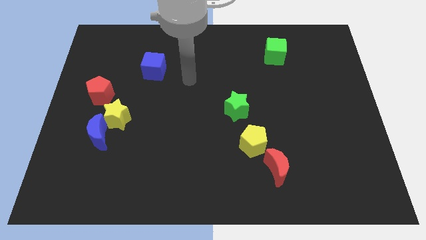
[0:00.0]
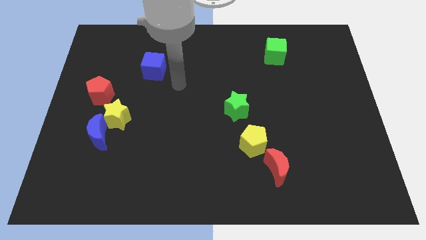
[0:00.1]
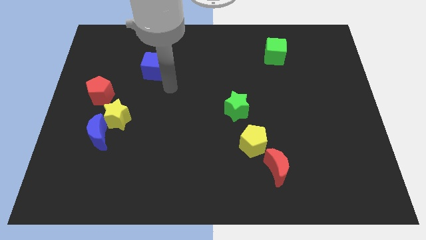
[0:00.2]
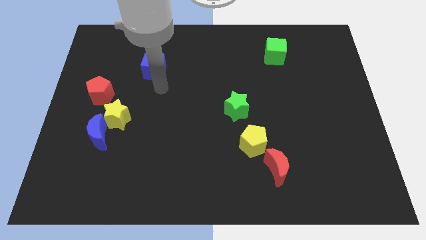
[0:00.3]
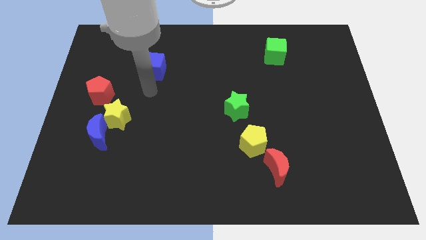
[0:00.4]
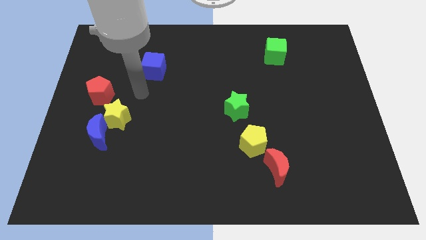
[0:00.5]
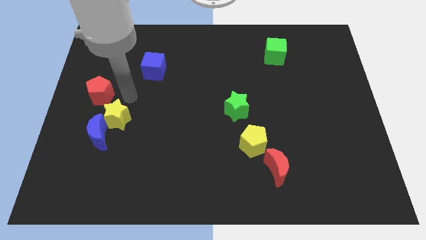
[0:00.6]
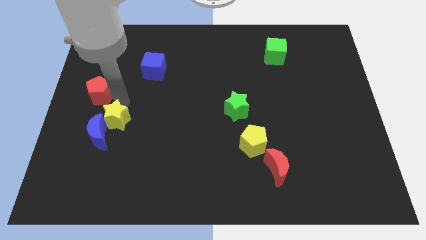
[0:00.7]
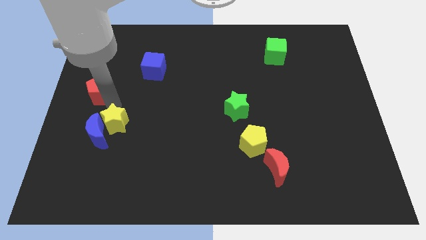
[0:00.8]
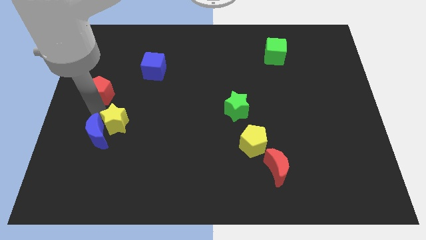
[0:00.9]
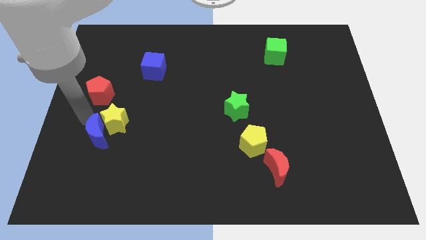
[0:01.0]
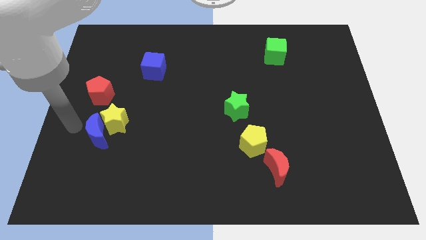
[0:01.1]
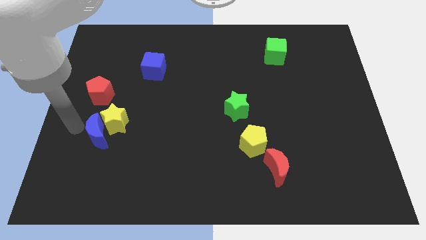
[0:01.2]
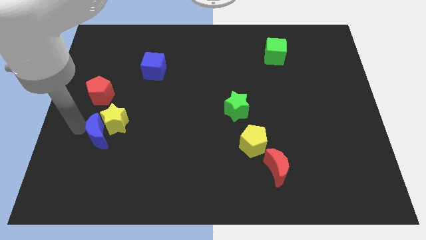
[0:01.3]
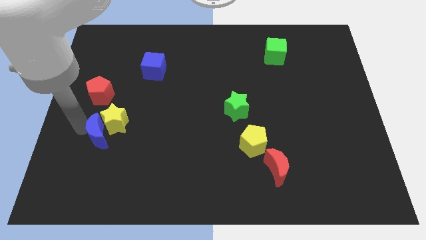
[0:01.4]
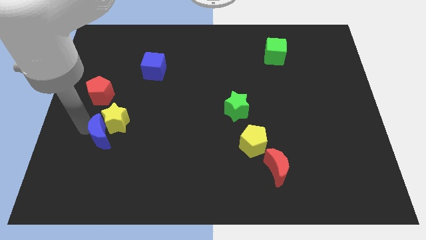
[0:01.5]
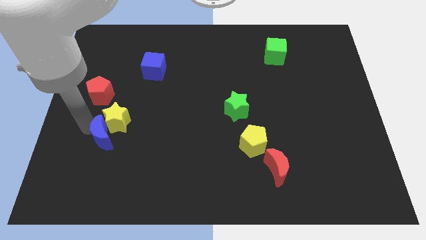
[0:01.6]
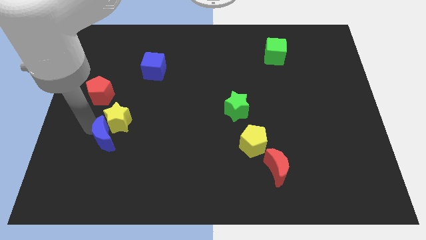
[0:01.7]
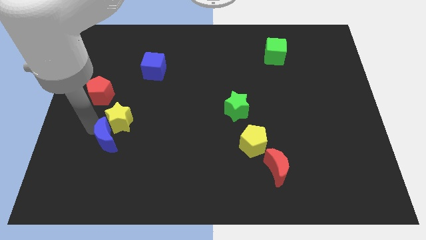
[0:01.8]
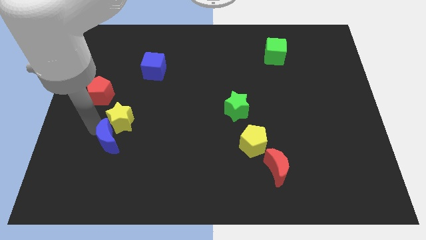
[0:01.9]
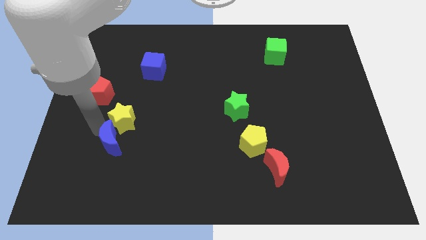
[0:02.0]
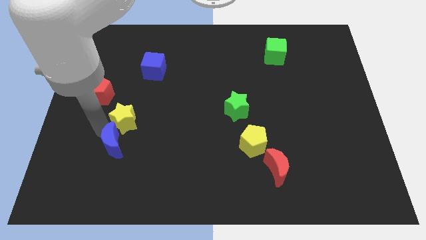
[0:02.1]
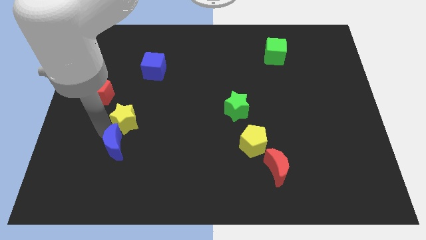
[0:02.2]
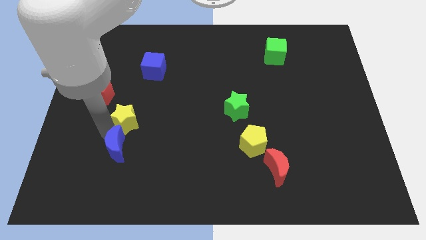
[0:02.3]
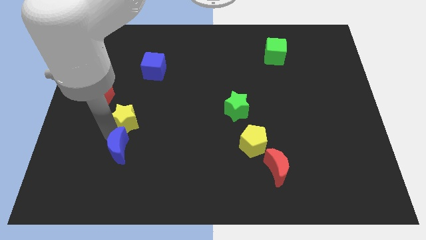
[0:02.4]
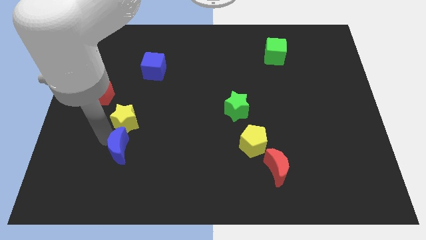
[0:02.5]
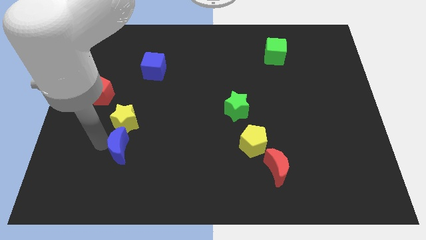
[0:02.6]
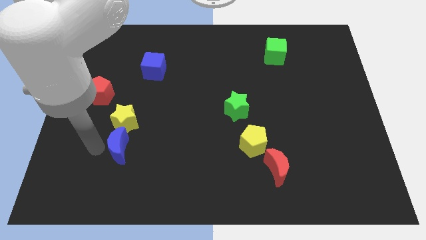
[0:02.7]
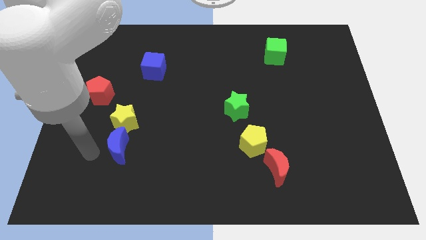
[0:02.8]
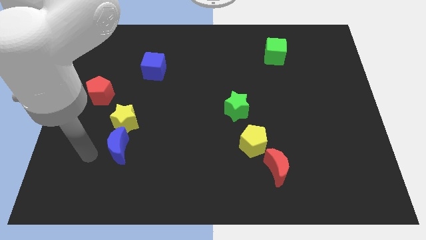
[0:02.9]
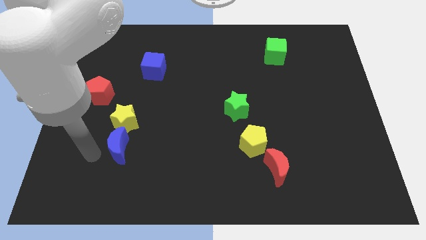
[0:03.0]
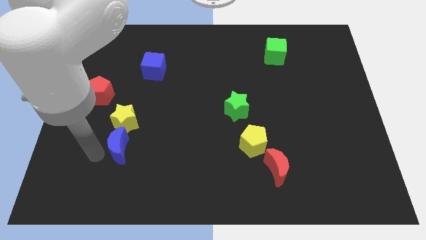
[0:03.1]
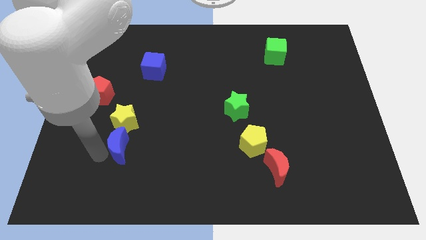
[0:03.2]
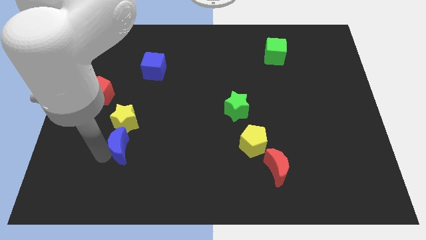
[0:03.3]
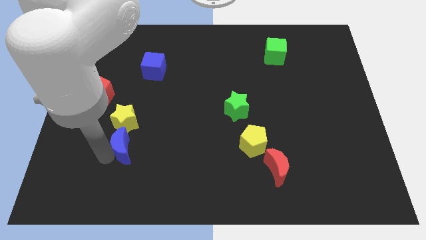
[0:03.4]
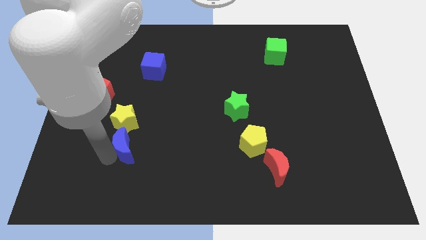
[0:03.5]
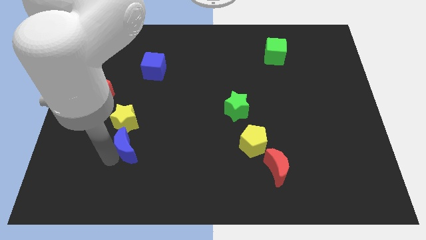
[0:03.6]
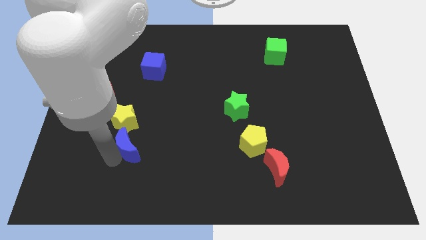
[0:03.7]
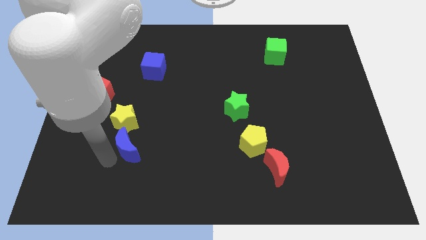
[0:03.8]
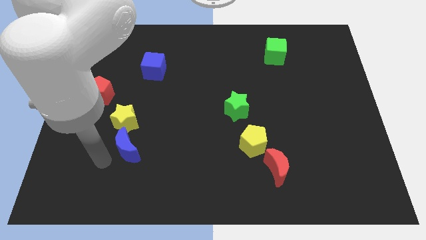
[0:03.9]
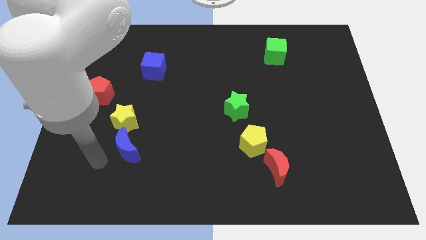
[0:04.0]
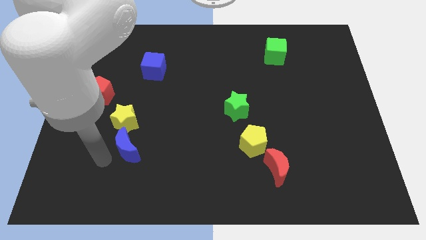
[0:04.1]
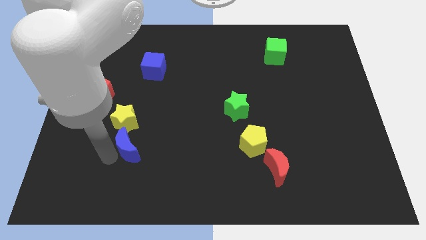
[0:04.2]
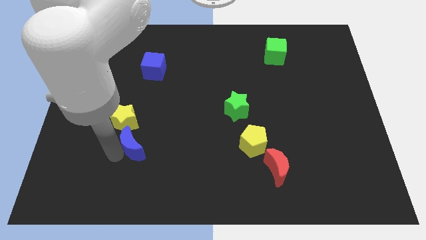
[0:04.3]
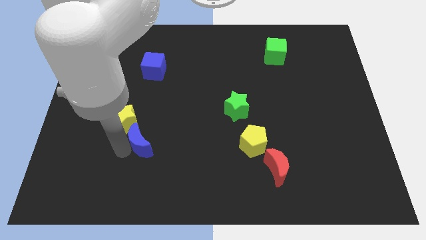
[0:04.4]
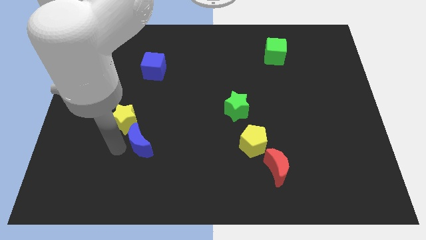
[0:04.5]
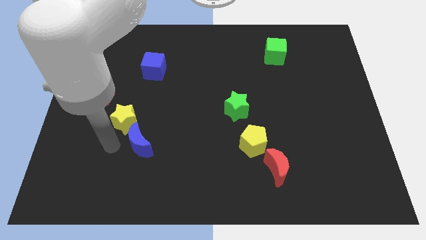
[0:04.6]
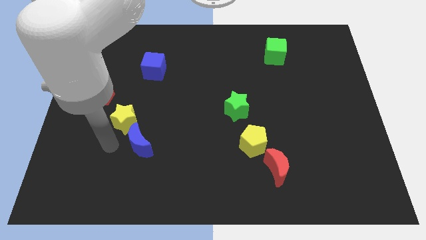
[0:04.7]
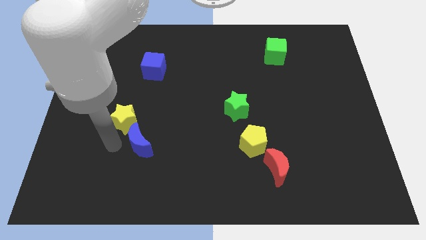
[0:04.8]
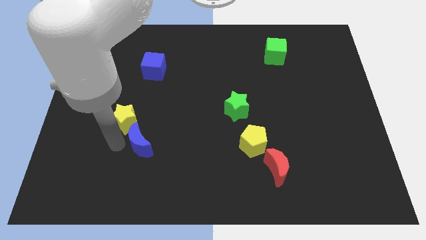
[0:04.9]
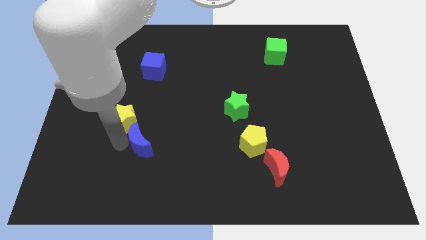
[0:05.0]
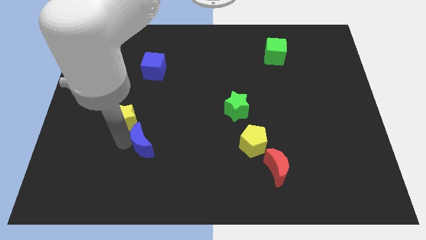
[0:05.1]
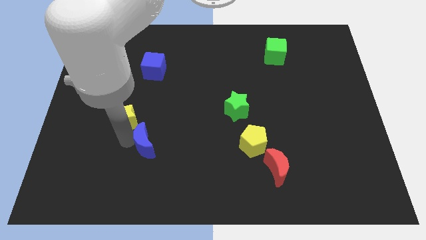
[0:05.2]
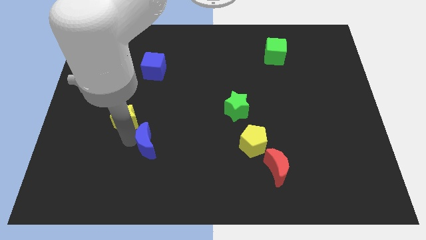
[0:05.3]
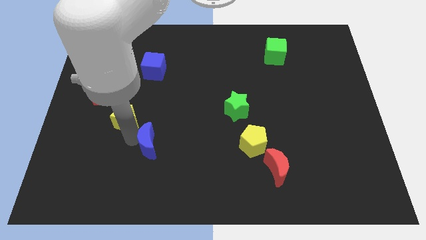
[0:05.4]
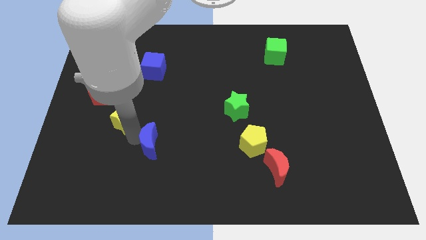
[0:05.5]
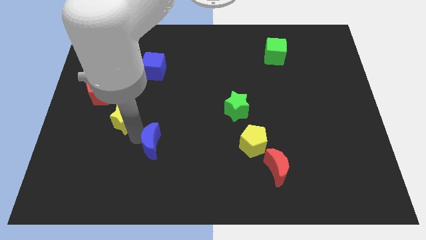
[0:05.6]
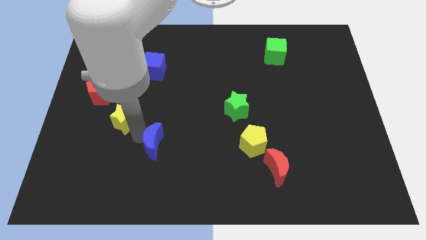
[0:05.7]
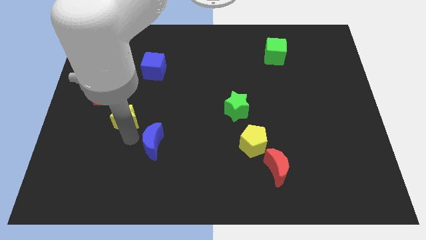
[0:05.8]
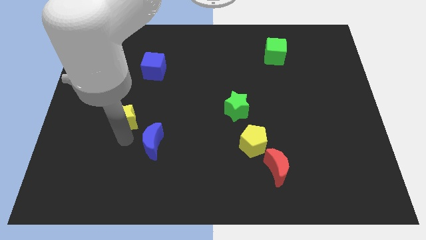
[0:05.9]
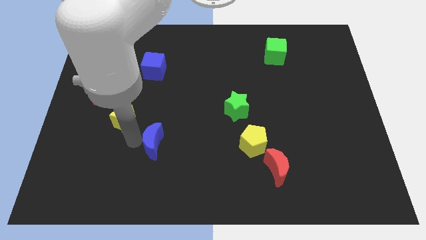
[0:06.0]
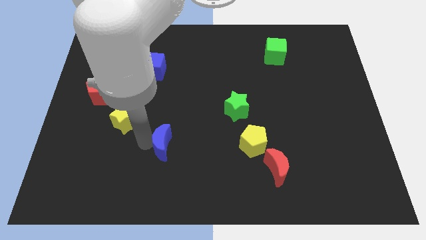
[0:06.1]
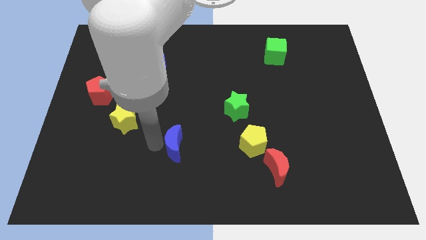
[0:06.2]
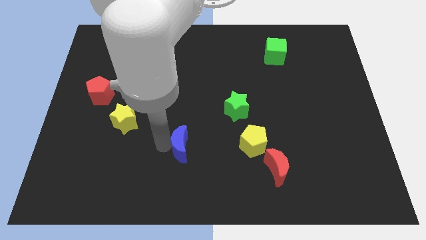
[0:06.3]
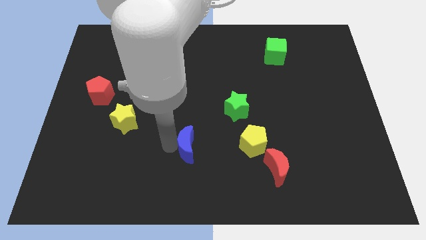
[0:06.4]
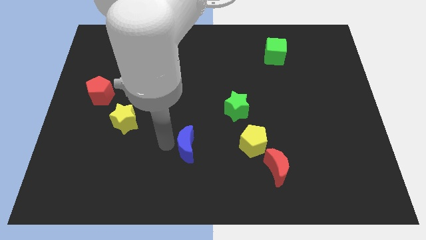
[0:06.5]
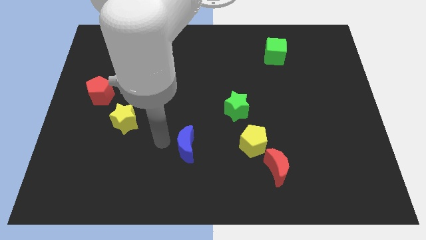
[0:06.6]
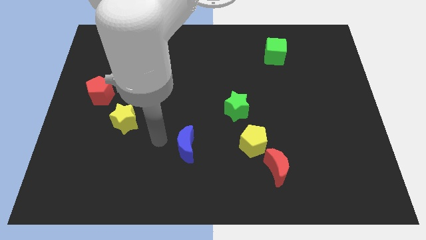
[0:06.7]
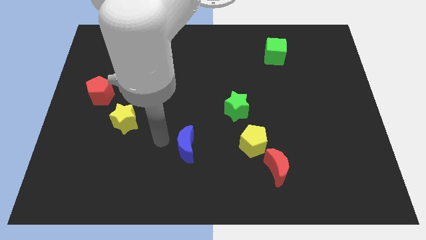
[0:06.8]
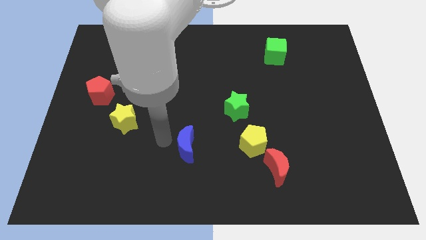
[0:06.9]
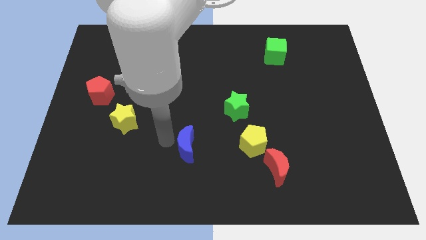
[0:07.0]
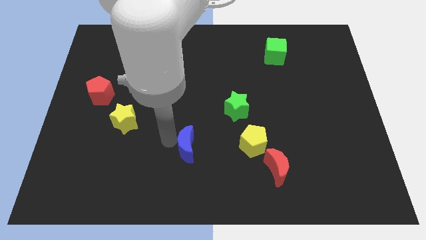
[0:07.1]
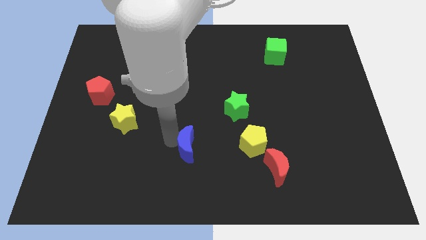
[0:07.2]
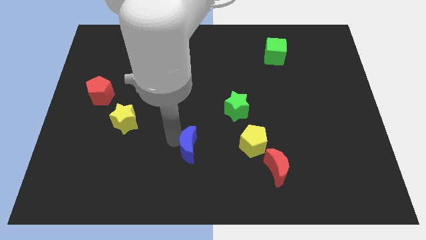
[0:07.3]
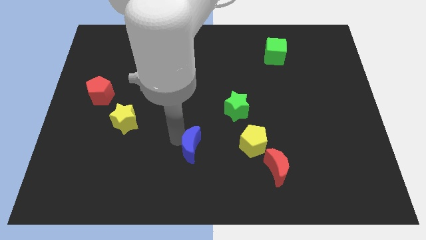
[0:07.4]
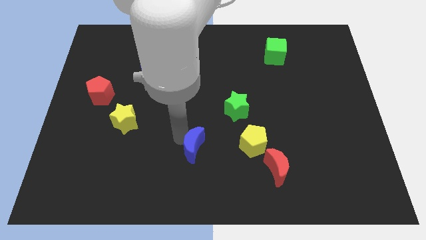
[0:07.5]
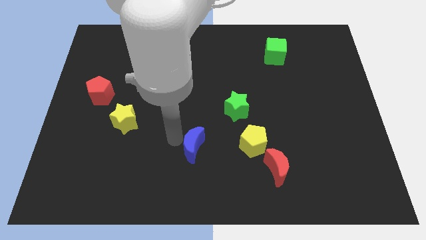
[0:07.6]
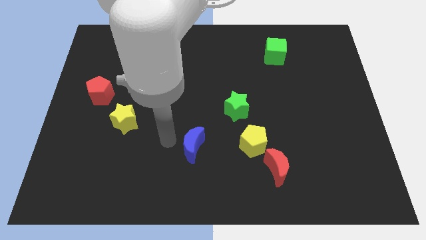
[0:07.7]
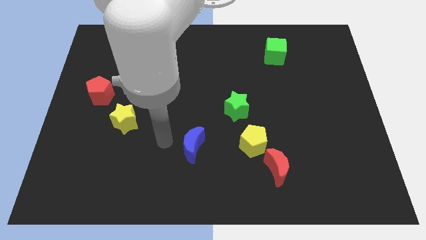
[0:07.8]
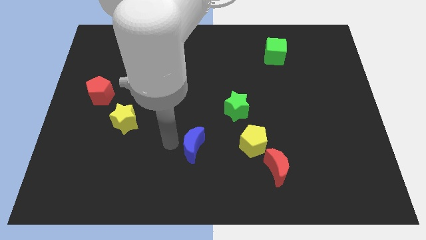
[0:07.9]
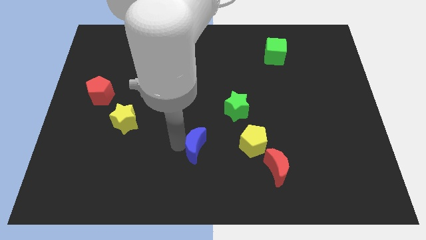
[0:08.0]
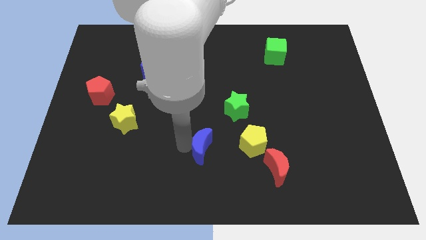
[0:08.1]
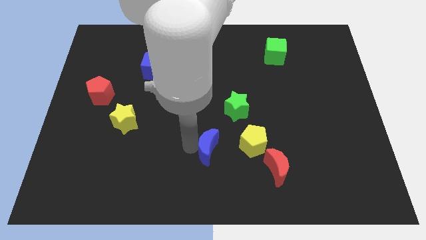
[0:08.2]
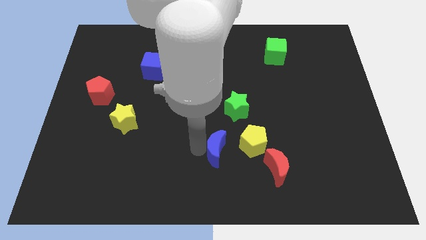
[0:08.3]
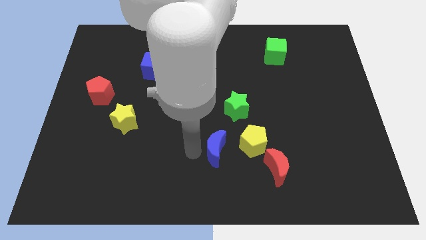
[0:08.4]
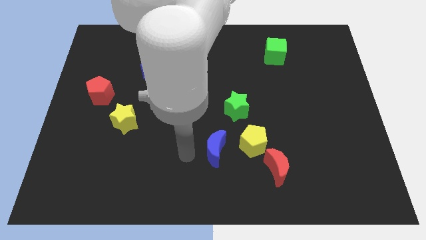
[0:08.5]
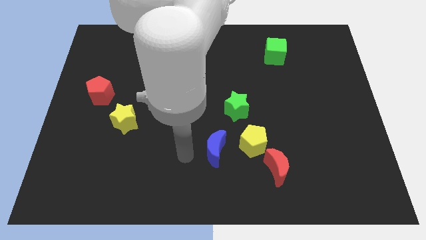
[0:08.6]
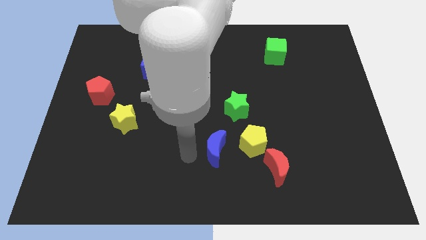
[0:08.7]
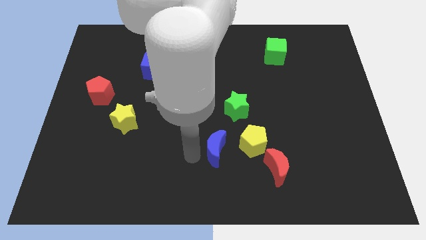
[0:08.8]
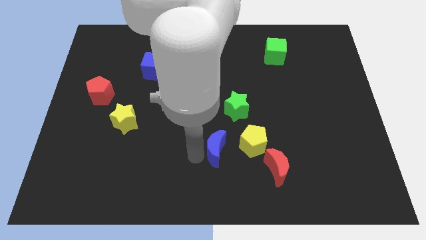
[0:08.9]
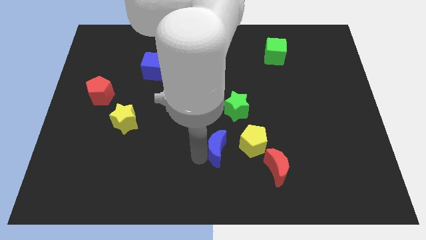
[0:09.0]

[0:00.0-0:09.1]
put the blue moon below the green star
